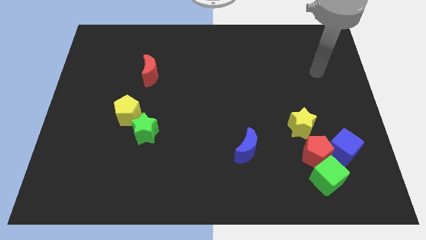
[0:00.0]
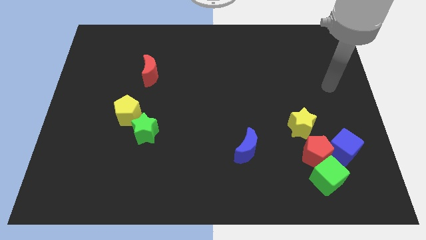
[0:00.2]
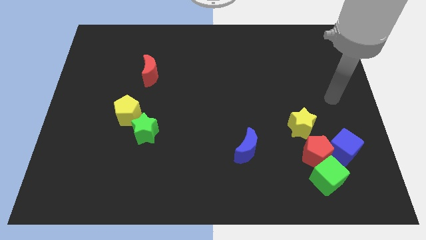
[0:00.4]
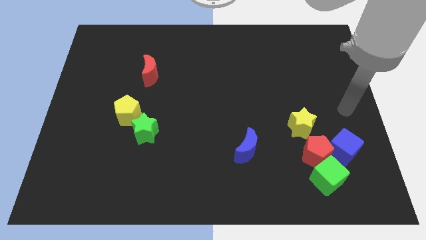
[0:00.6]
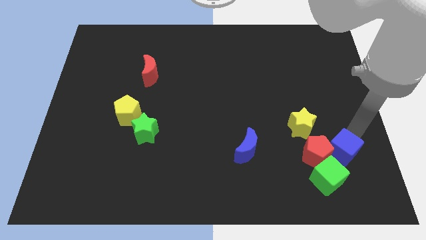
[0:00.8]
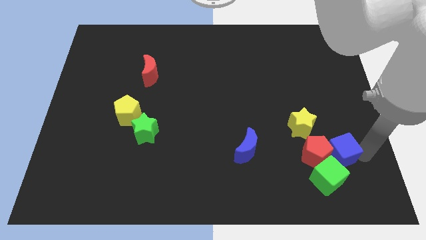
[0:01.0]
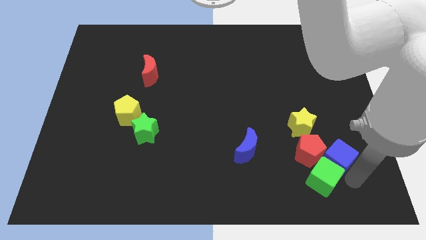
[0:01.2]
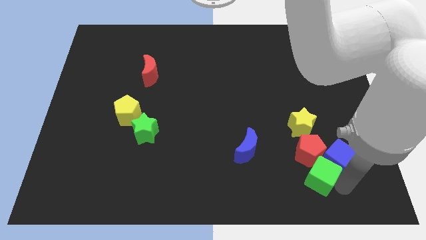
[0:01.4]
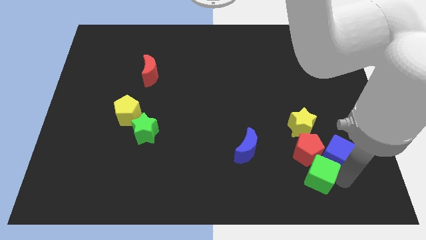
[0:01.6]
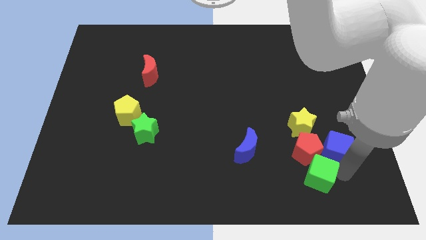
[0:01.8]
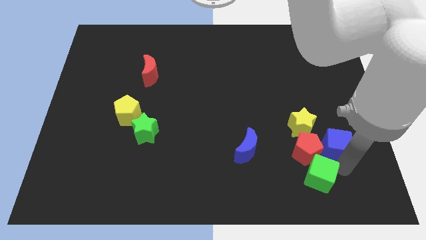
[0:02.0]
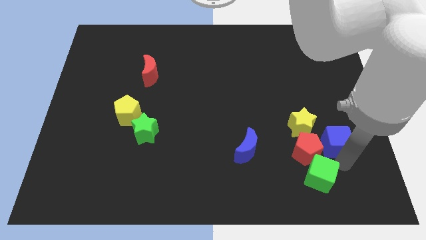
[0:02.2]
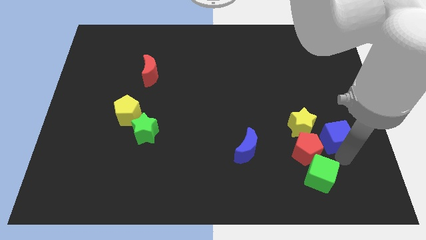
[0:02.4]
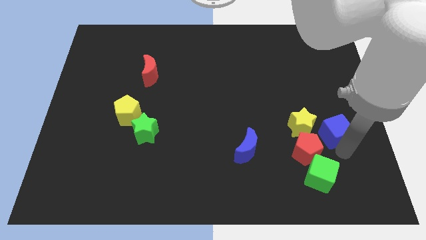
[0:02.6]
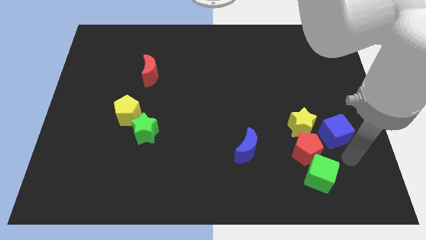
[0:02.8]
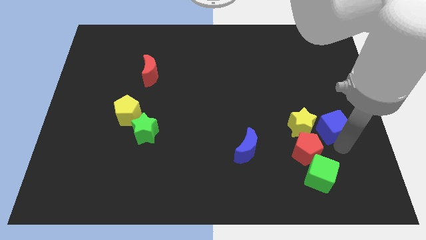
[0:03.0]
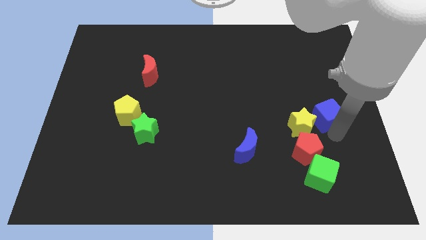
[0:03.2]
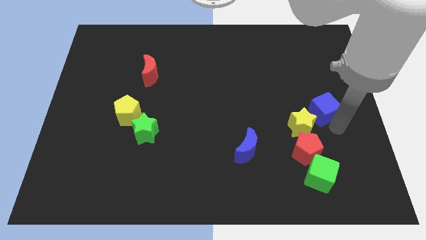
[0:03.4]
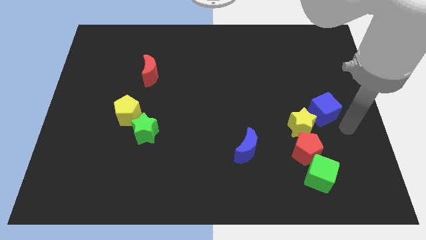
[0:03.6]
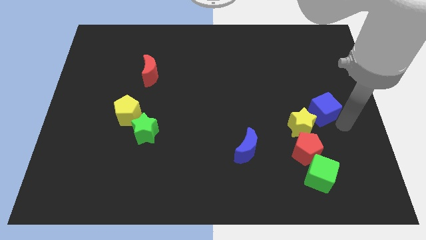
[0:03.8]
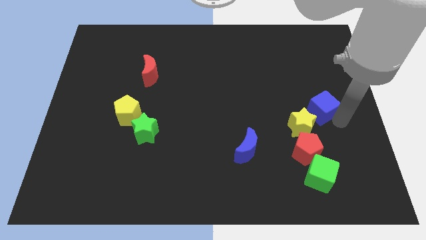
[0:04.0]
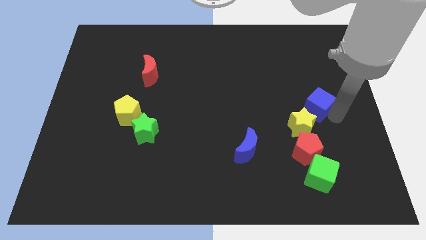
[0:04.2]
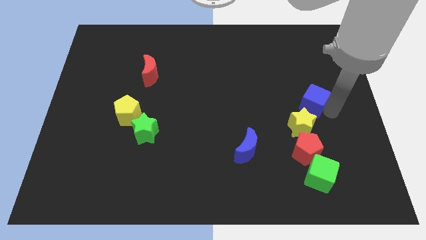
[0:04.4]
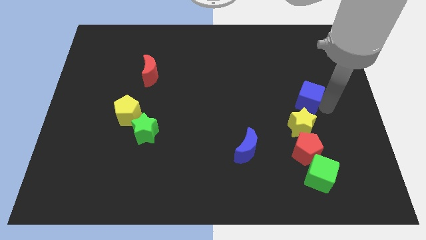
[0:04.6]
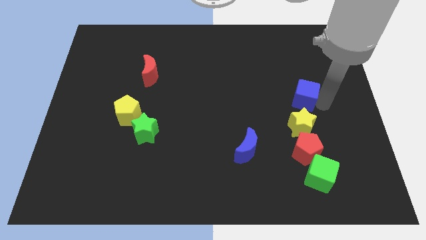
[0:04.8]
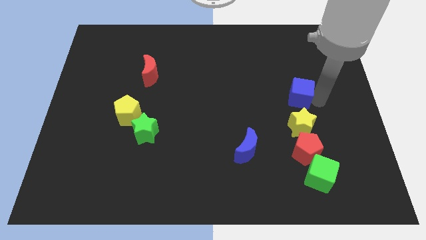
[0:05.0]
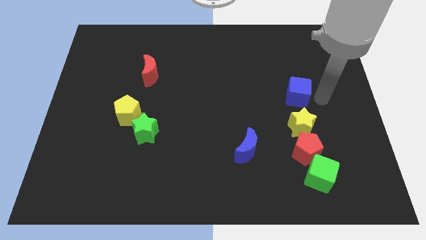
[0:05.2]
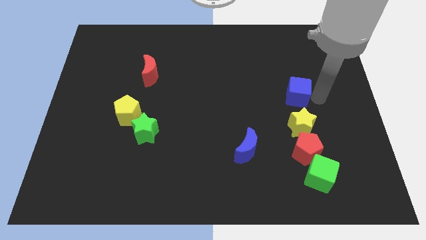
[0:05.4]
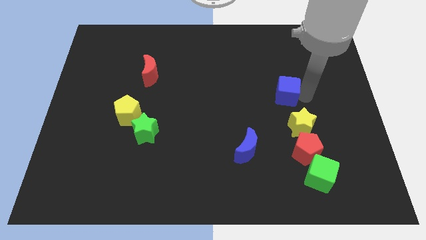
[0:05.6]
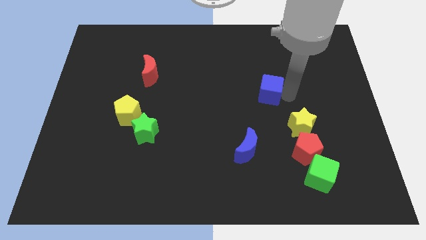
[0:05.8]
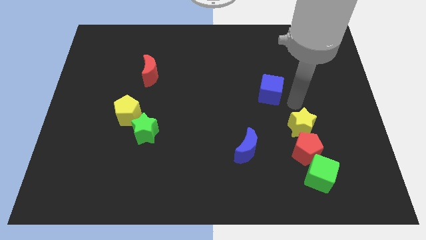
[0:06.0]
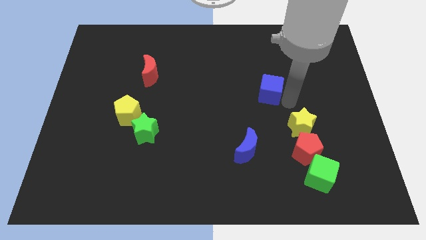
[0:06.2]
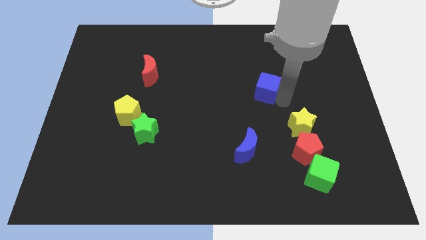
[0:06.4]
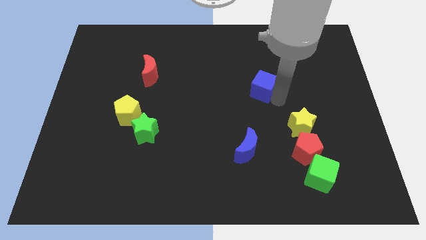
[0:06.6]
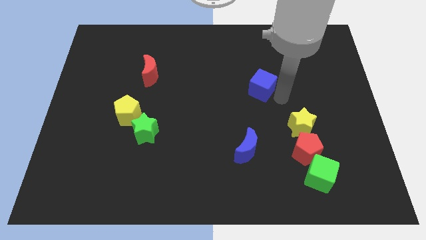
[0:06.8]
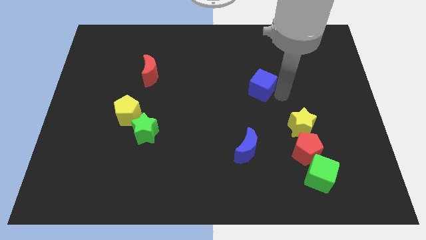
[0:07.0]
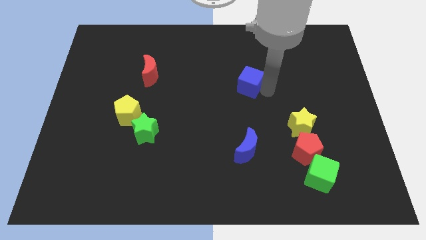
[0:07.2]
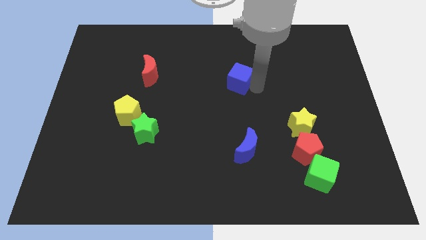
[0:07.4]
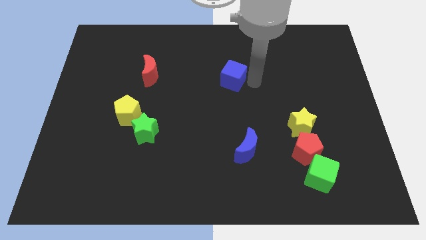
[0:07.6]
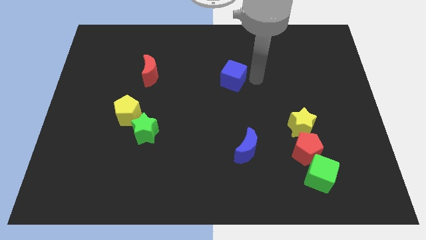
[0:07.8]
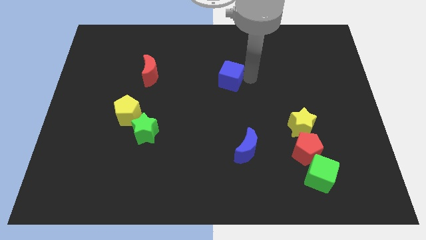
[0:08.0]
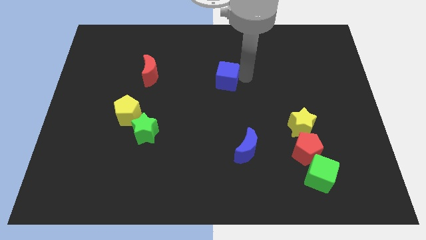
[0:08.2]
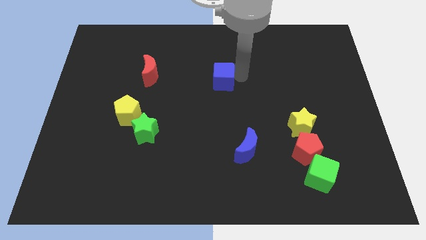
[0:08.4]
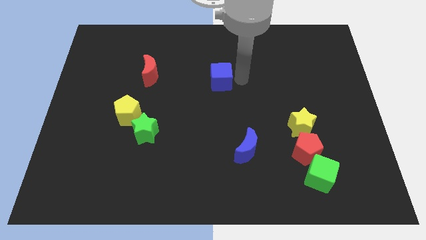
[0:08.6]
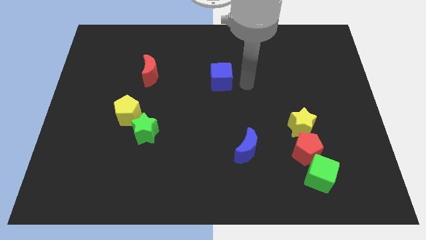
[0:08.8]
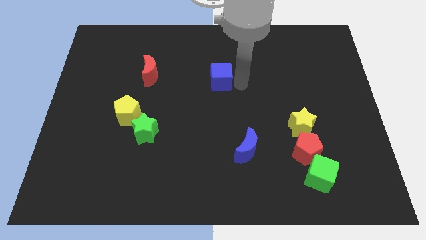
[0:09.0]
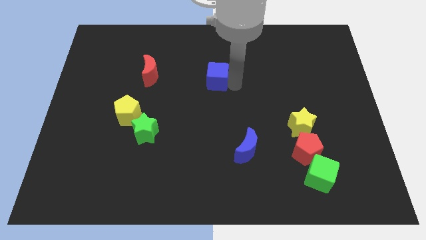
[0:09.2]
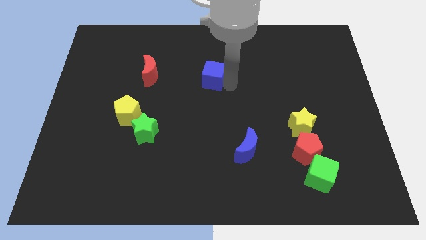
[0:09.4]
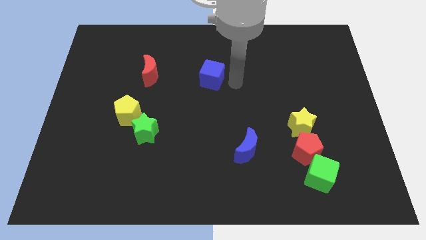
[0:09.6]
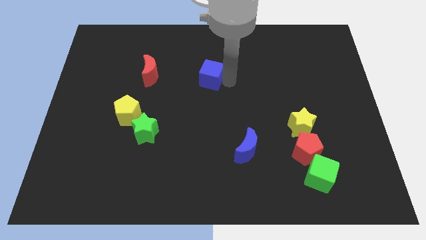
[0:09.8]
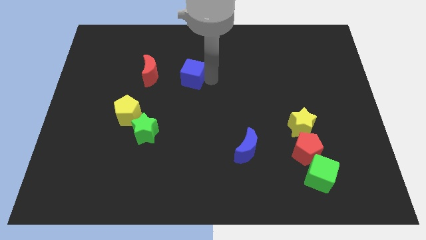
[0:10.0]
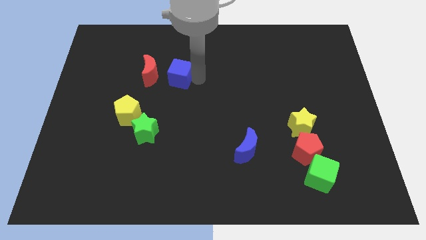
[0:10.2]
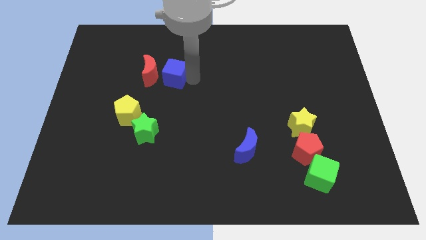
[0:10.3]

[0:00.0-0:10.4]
push the blue cube close to the red moon

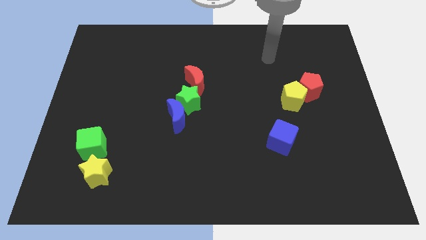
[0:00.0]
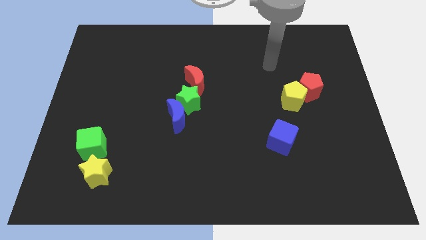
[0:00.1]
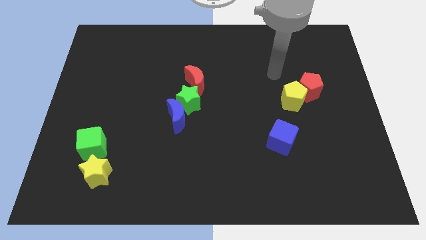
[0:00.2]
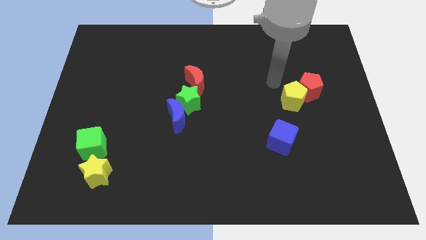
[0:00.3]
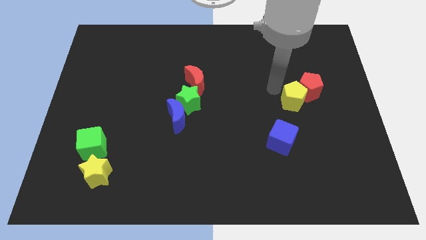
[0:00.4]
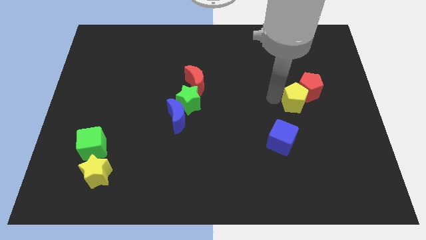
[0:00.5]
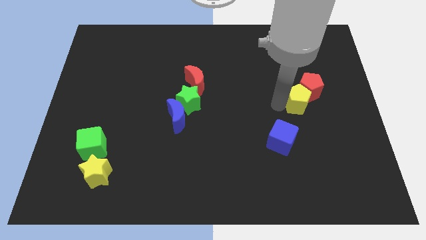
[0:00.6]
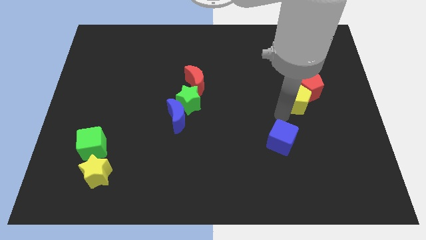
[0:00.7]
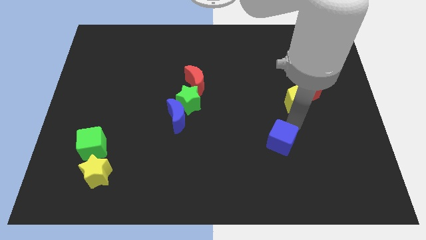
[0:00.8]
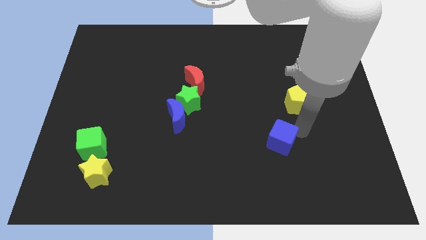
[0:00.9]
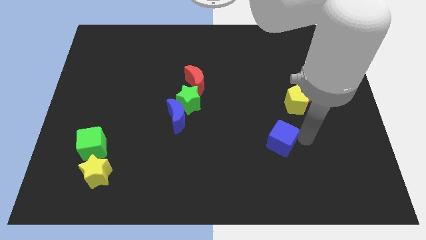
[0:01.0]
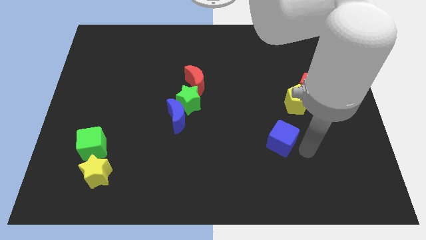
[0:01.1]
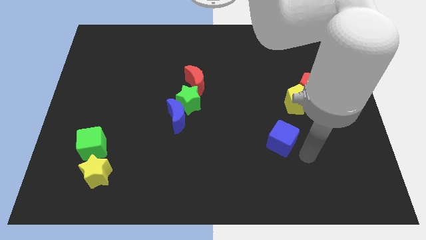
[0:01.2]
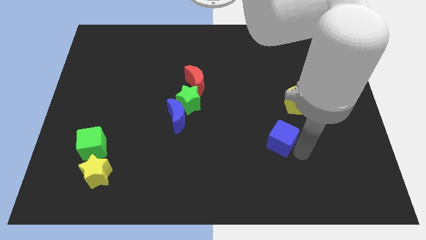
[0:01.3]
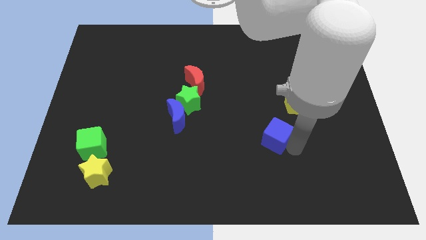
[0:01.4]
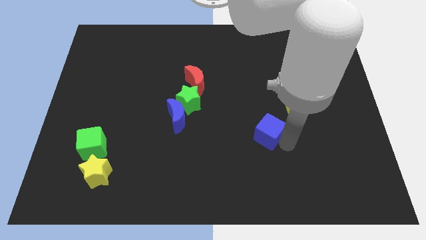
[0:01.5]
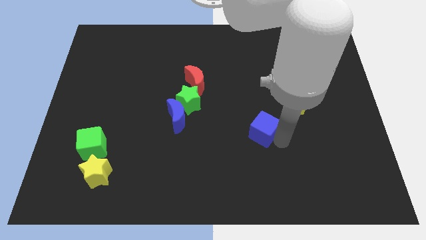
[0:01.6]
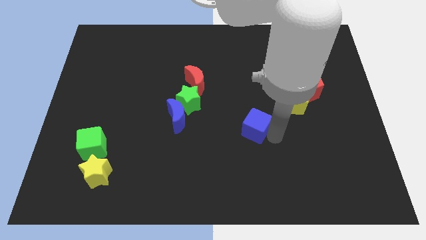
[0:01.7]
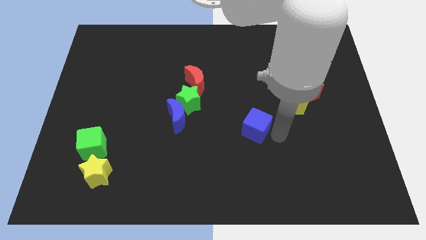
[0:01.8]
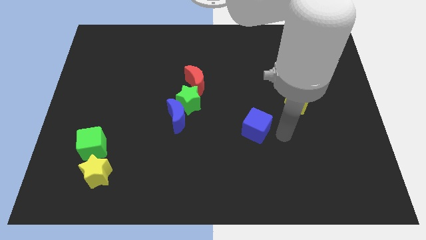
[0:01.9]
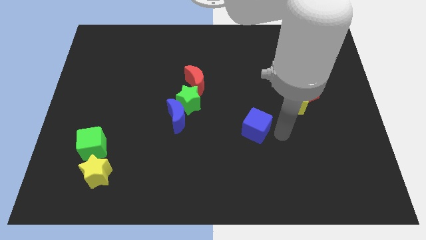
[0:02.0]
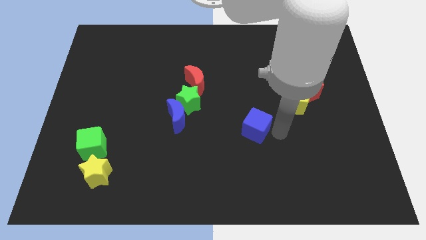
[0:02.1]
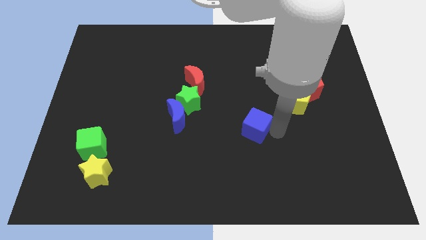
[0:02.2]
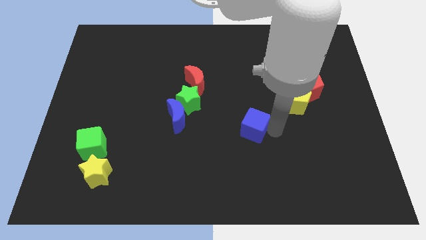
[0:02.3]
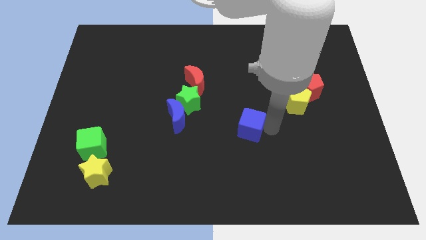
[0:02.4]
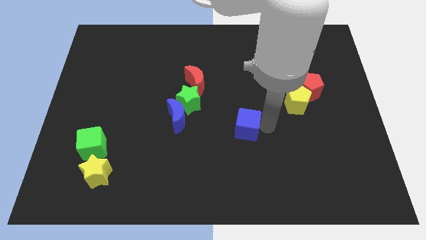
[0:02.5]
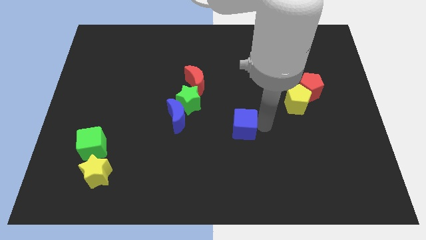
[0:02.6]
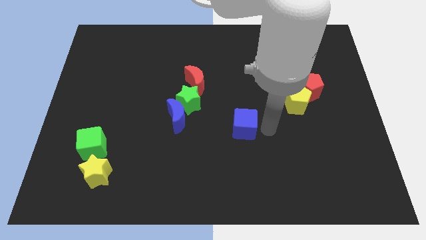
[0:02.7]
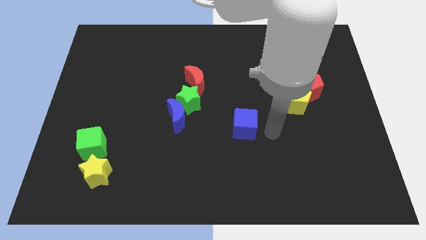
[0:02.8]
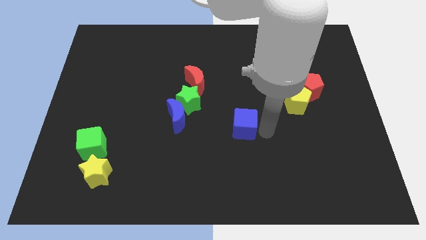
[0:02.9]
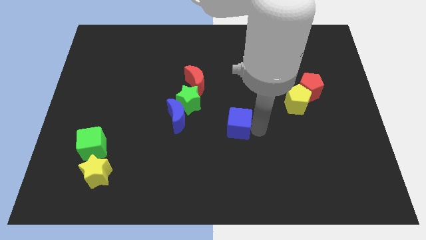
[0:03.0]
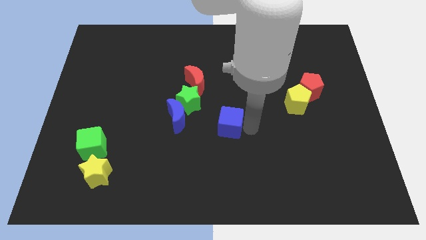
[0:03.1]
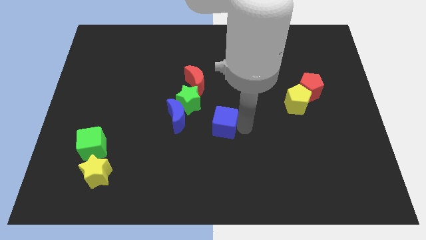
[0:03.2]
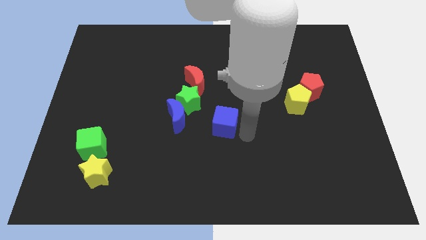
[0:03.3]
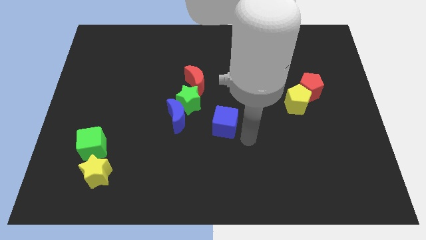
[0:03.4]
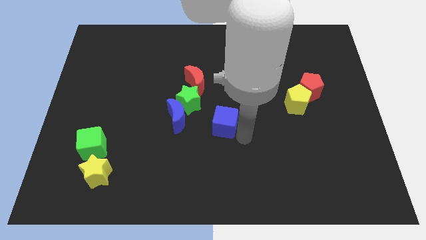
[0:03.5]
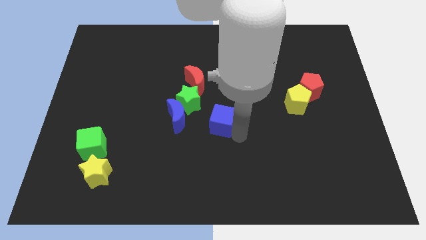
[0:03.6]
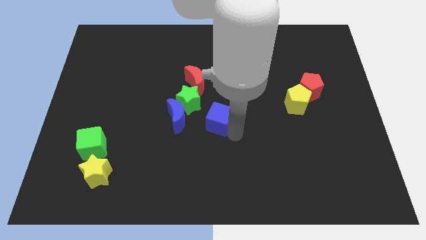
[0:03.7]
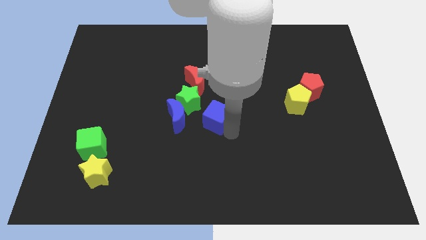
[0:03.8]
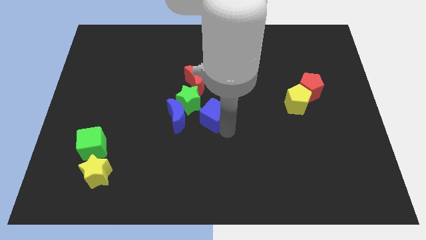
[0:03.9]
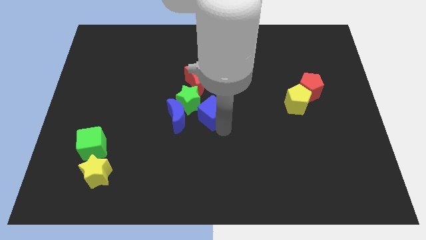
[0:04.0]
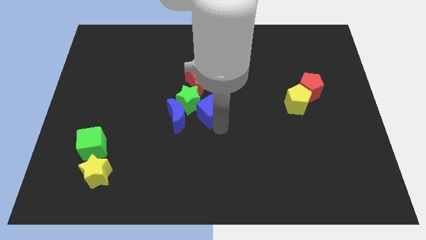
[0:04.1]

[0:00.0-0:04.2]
slide the blue cube next to the green star
